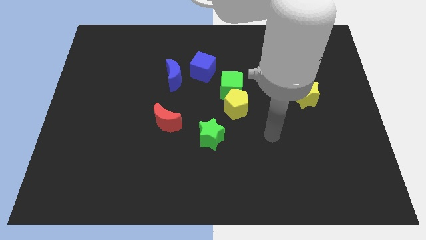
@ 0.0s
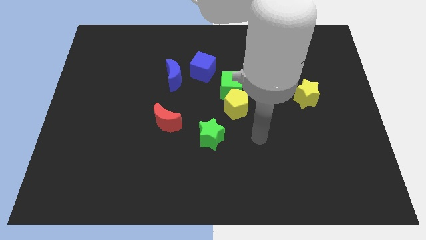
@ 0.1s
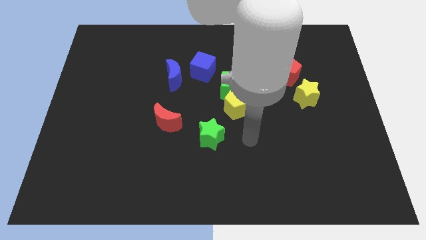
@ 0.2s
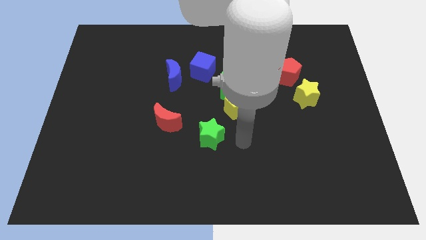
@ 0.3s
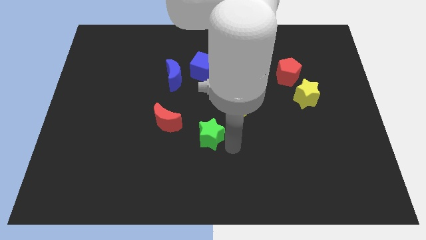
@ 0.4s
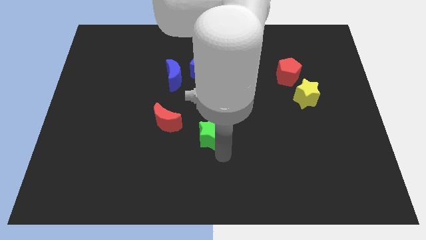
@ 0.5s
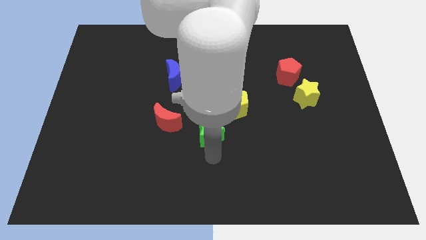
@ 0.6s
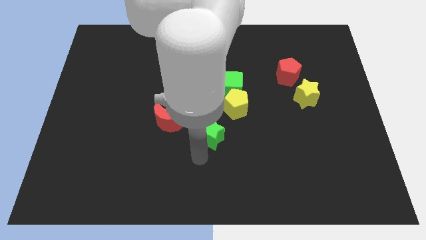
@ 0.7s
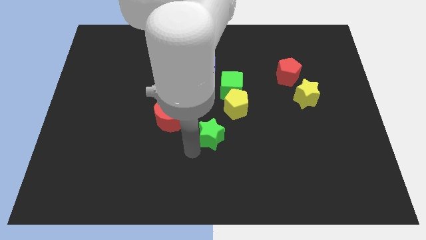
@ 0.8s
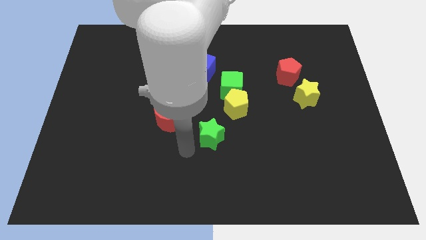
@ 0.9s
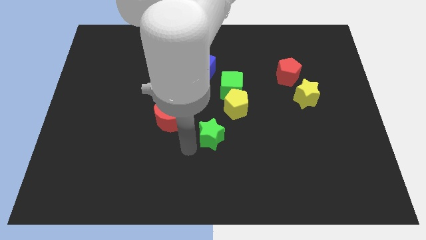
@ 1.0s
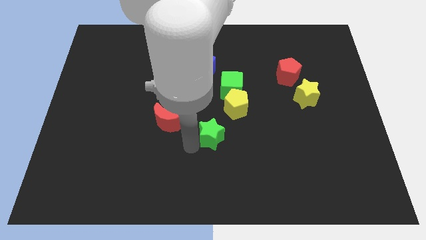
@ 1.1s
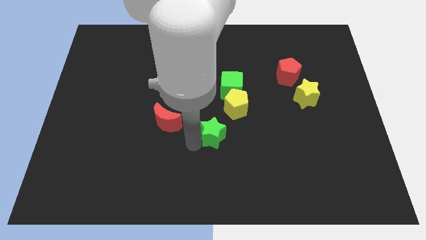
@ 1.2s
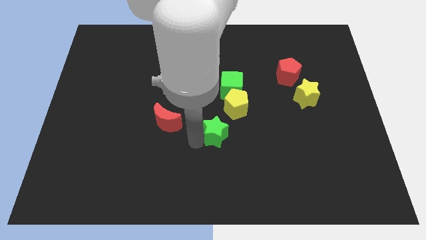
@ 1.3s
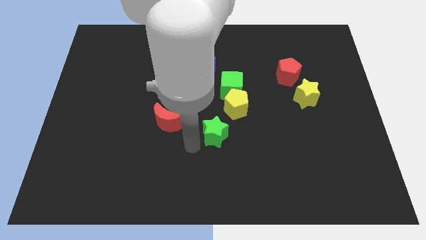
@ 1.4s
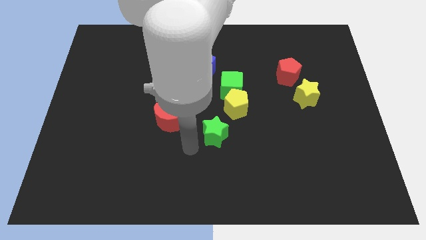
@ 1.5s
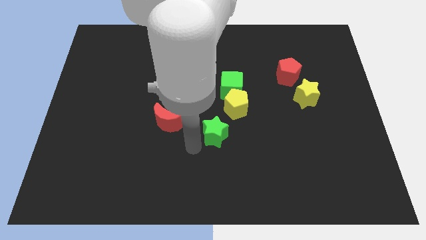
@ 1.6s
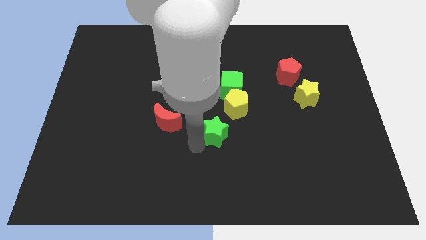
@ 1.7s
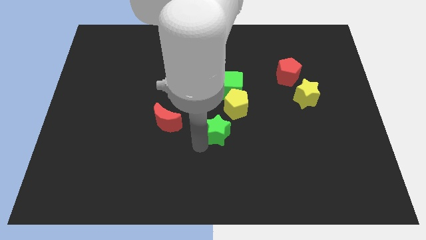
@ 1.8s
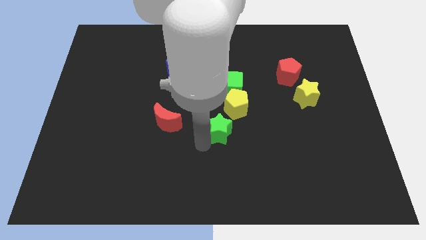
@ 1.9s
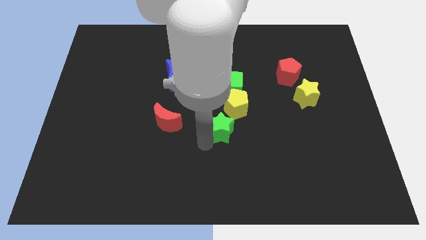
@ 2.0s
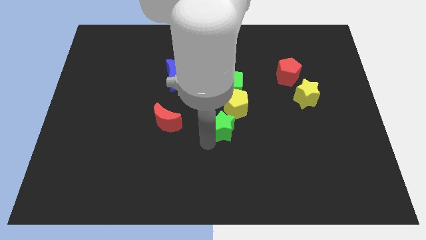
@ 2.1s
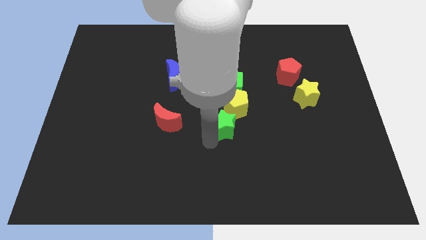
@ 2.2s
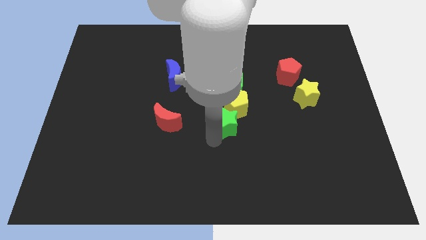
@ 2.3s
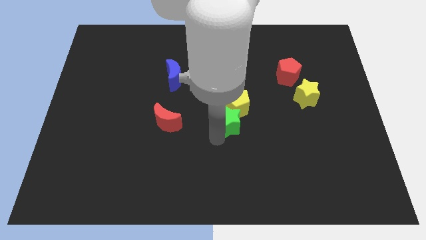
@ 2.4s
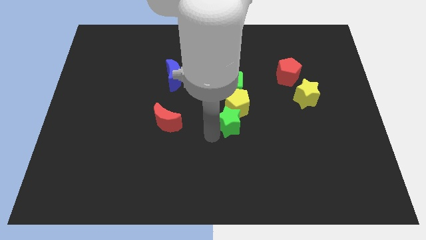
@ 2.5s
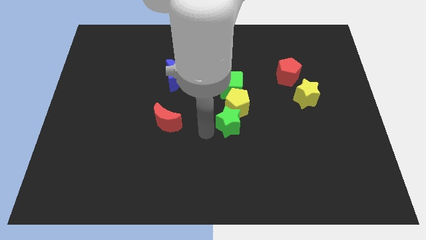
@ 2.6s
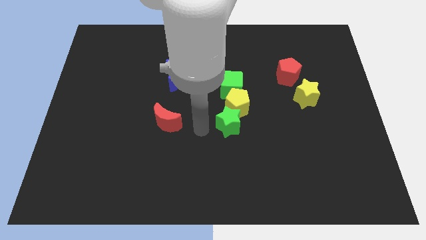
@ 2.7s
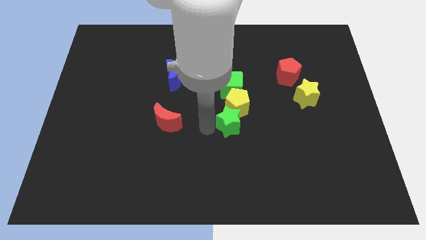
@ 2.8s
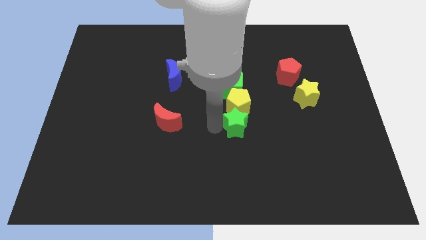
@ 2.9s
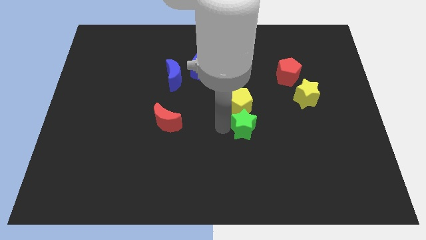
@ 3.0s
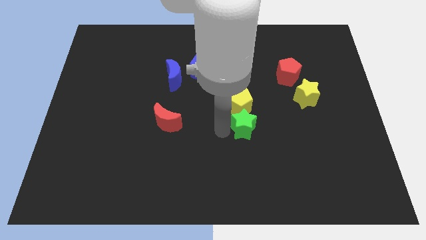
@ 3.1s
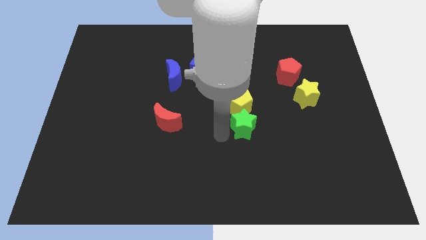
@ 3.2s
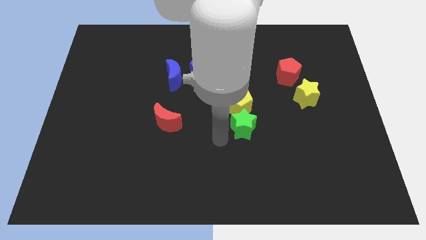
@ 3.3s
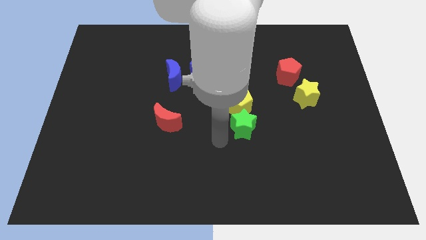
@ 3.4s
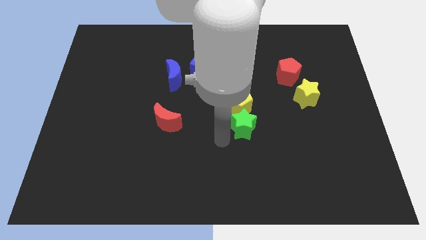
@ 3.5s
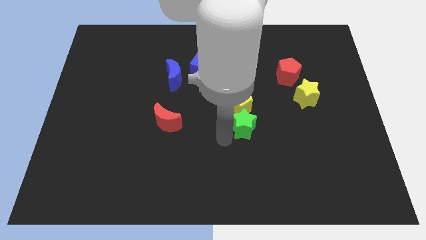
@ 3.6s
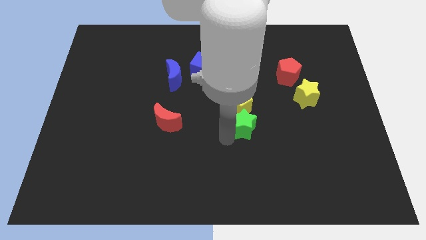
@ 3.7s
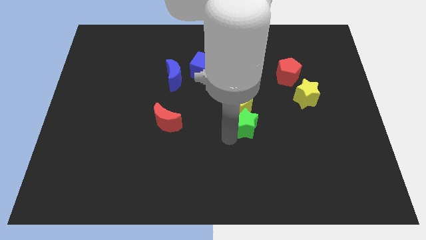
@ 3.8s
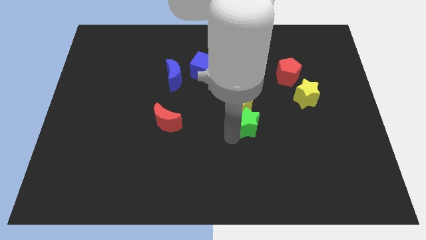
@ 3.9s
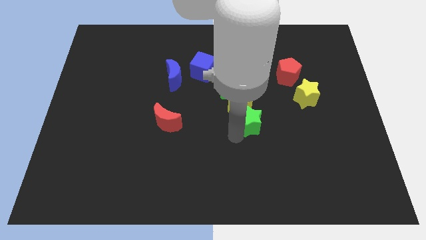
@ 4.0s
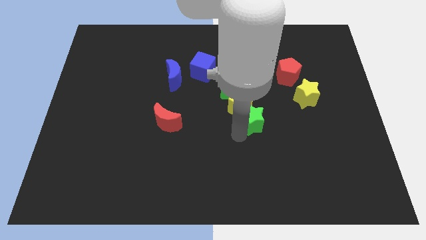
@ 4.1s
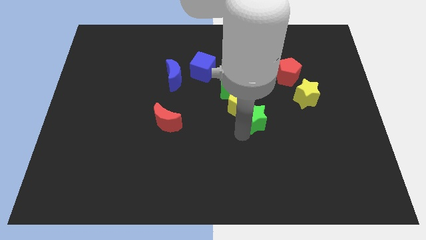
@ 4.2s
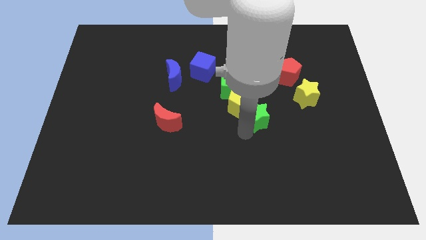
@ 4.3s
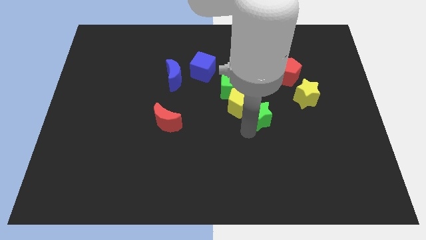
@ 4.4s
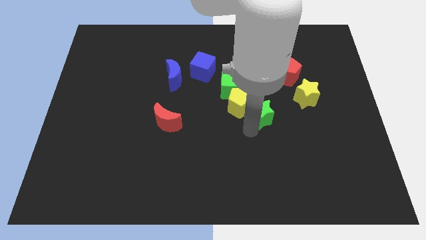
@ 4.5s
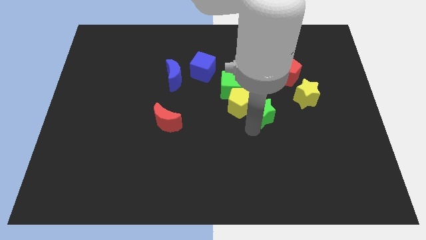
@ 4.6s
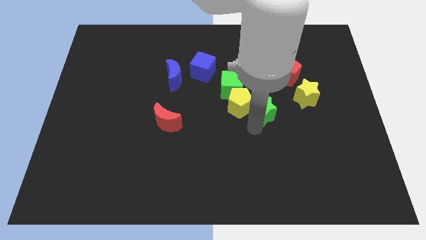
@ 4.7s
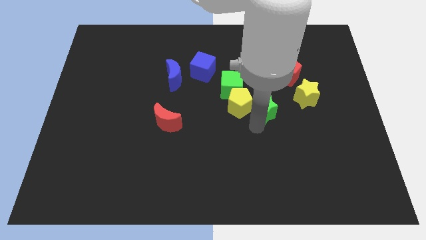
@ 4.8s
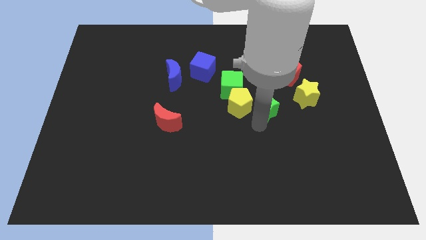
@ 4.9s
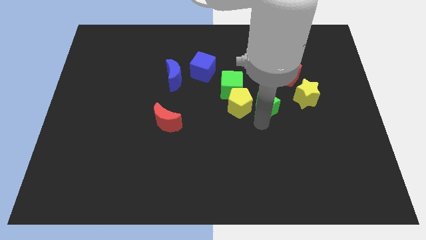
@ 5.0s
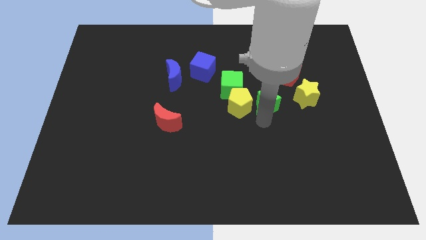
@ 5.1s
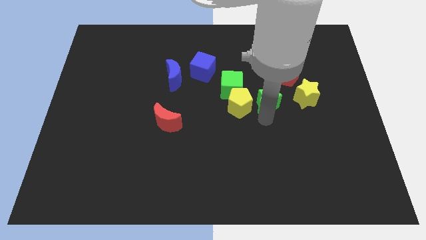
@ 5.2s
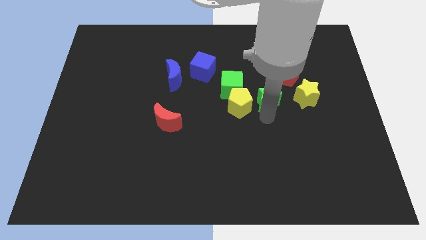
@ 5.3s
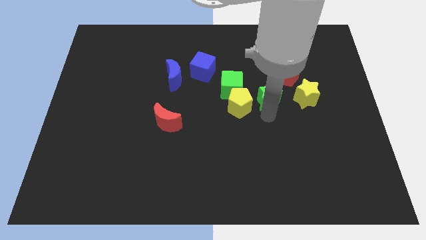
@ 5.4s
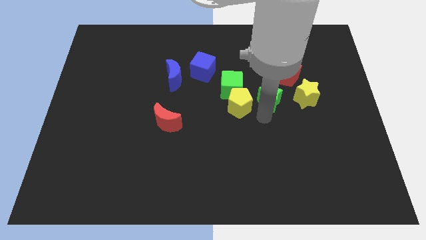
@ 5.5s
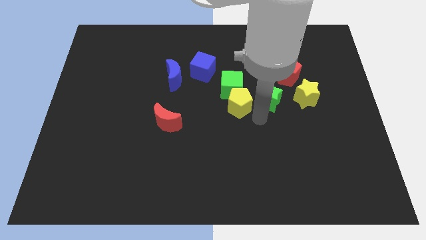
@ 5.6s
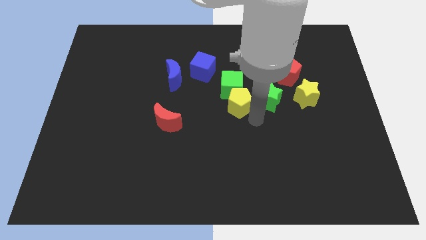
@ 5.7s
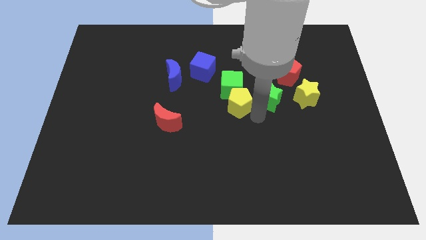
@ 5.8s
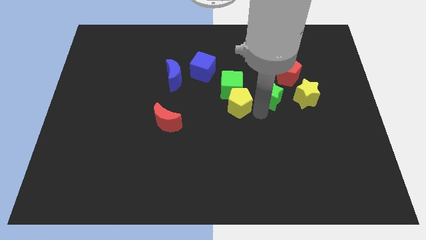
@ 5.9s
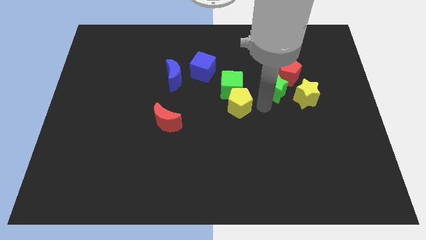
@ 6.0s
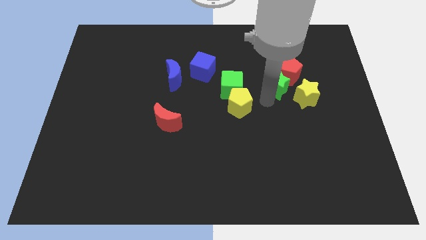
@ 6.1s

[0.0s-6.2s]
push the green star close to the red pentagon

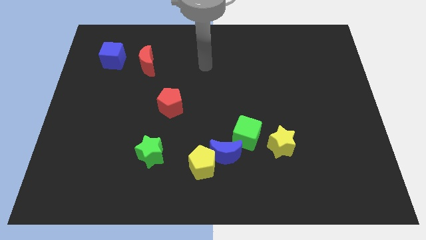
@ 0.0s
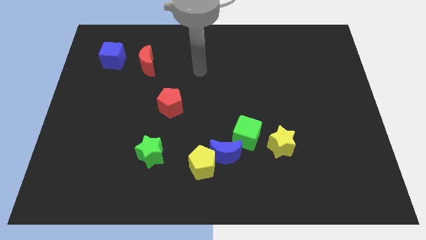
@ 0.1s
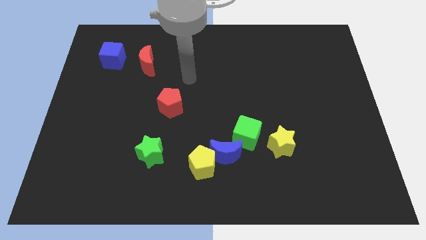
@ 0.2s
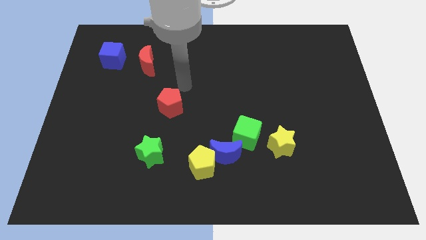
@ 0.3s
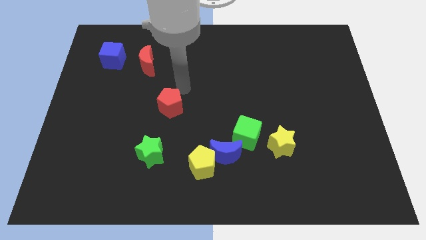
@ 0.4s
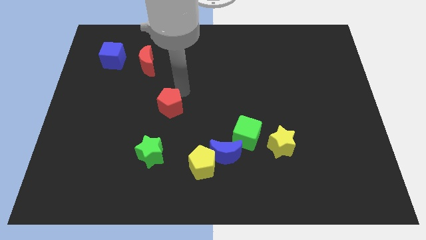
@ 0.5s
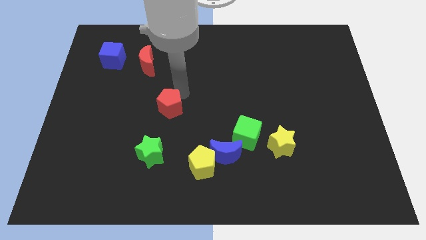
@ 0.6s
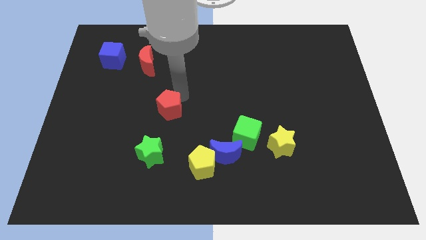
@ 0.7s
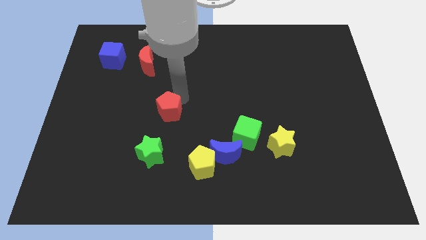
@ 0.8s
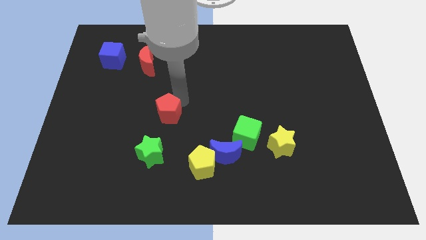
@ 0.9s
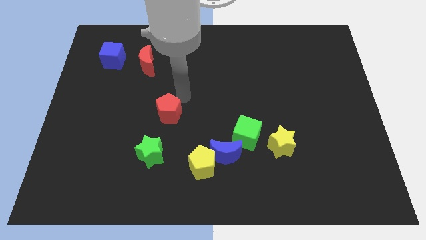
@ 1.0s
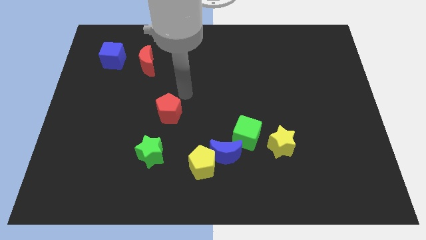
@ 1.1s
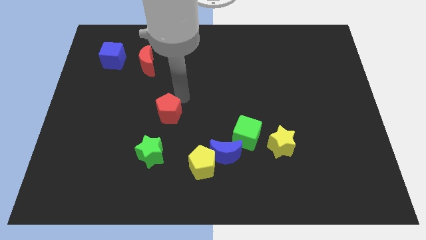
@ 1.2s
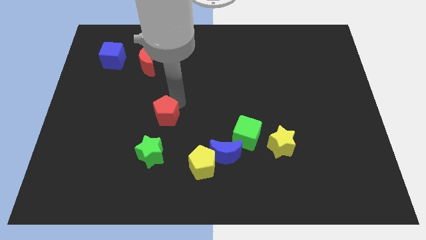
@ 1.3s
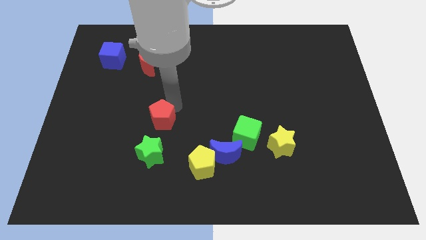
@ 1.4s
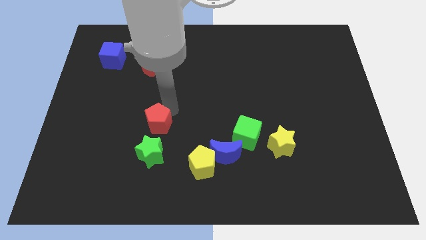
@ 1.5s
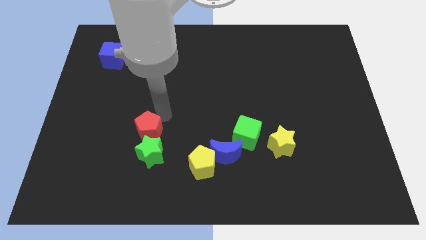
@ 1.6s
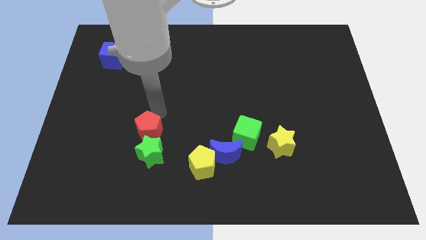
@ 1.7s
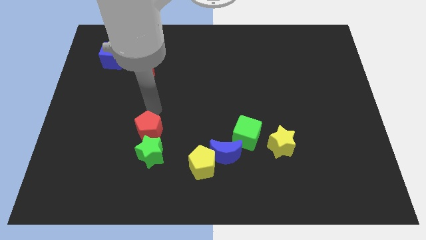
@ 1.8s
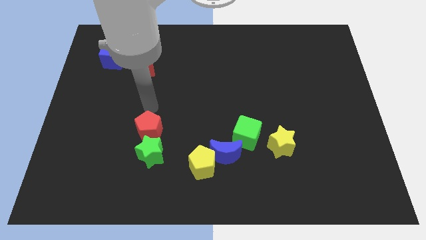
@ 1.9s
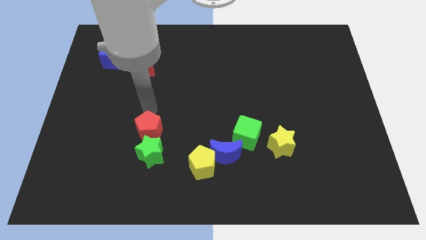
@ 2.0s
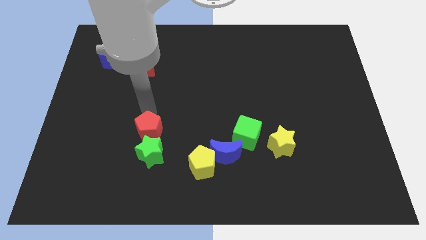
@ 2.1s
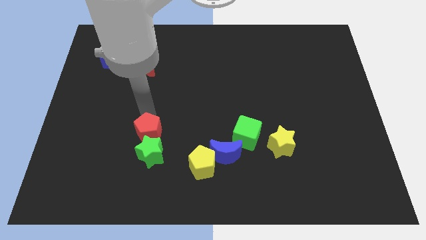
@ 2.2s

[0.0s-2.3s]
slide the red pentagon towards the green star

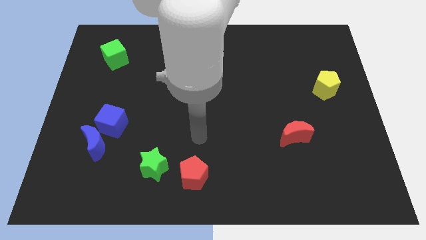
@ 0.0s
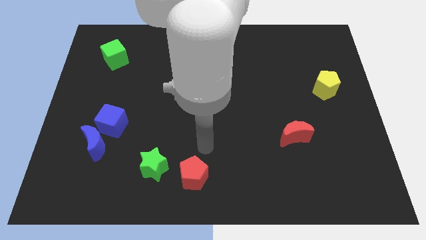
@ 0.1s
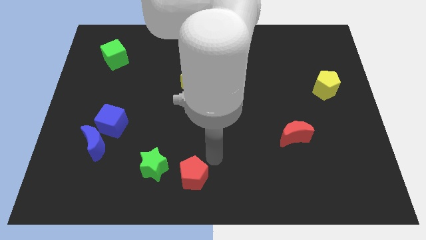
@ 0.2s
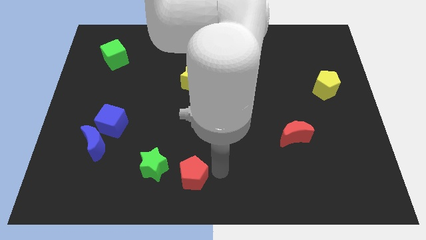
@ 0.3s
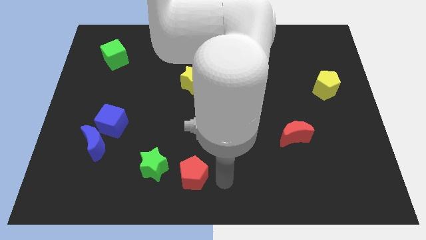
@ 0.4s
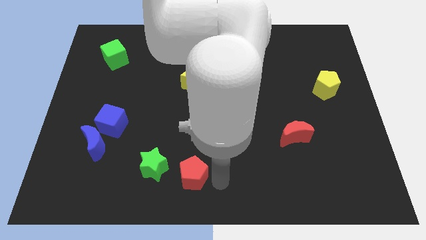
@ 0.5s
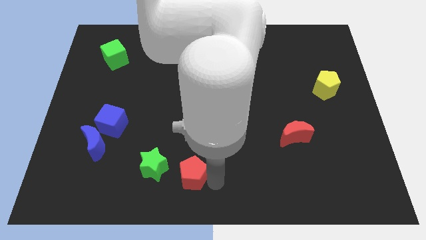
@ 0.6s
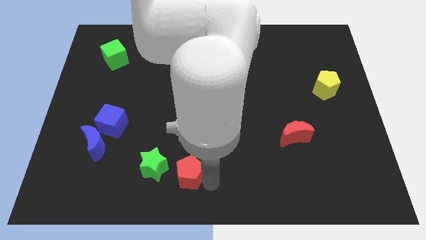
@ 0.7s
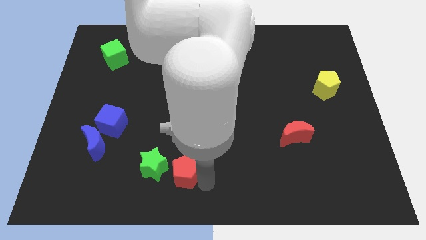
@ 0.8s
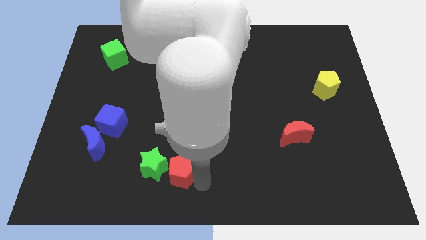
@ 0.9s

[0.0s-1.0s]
move the red pentagon next to the green star
